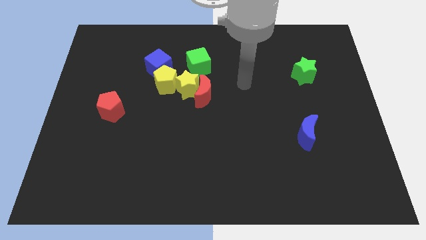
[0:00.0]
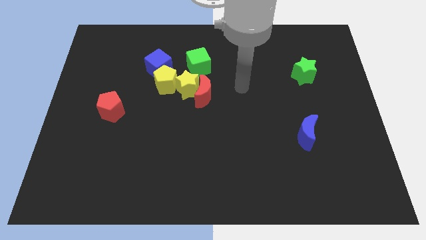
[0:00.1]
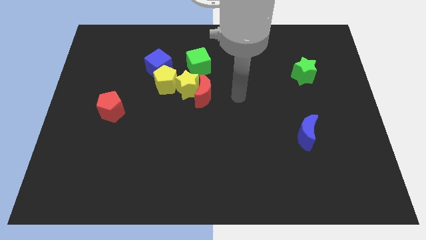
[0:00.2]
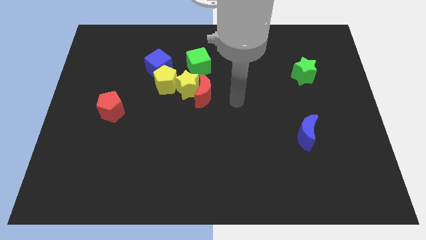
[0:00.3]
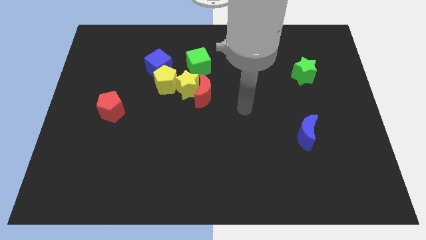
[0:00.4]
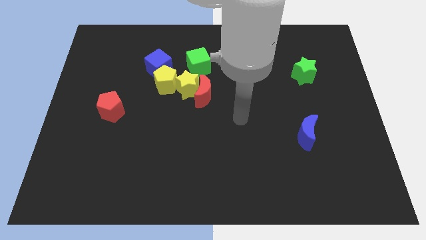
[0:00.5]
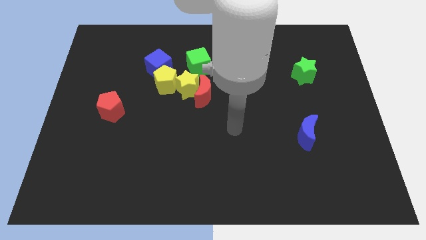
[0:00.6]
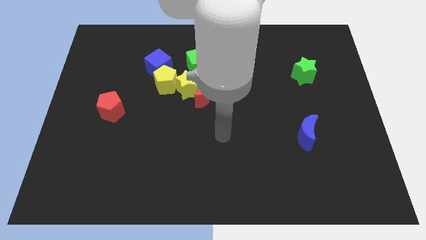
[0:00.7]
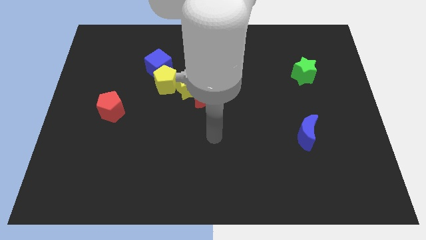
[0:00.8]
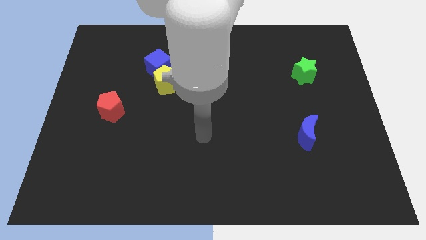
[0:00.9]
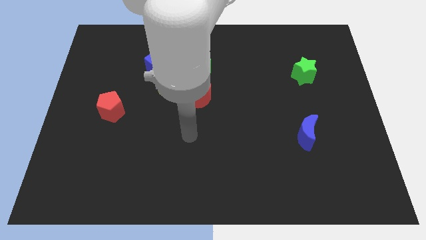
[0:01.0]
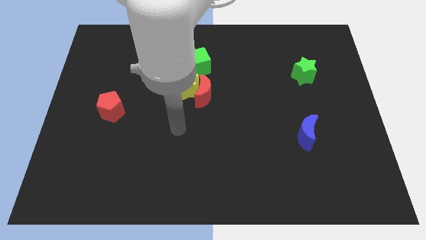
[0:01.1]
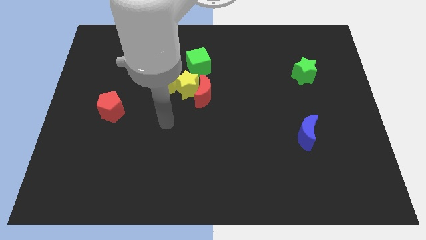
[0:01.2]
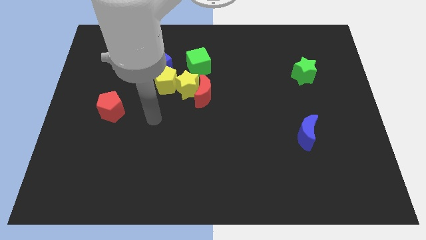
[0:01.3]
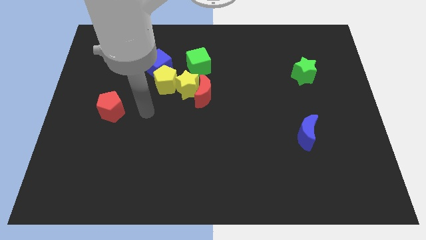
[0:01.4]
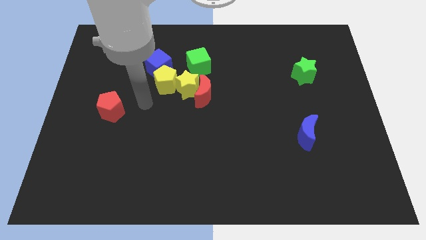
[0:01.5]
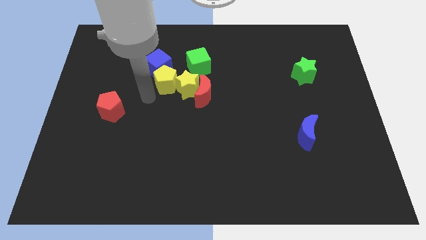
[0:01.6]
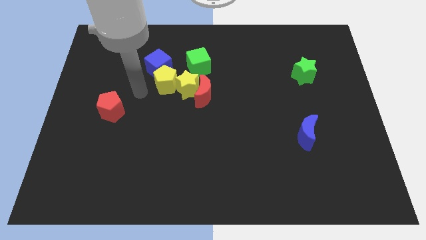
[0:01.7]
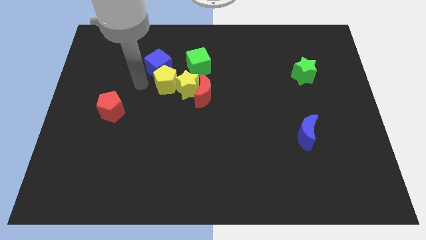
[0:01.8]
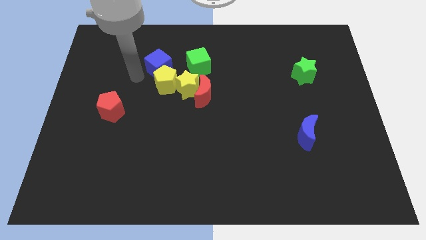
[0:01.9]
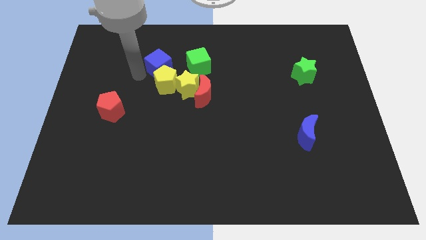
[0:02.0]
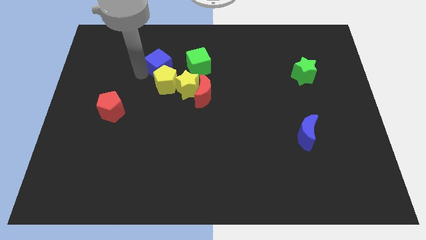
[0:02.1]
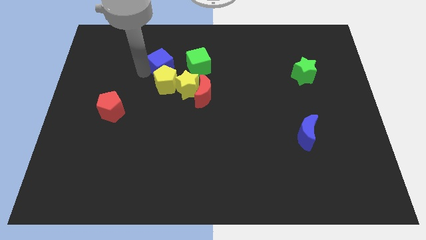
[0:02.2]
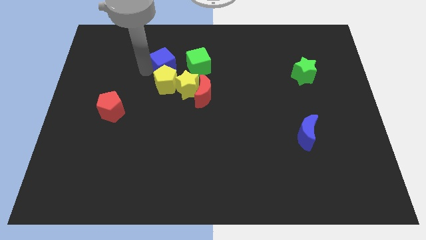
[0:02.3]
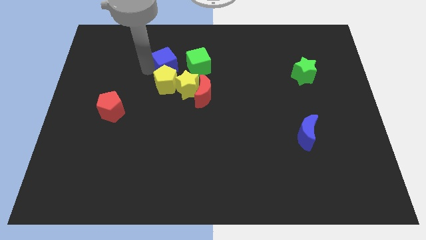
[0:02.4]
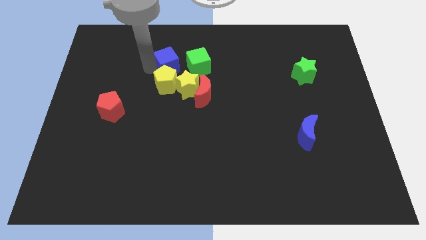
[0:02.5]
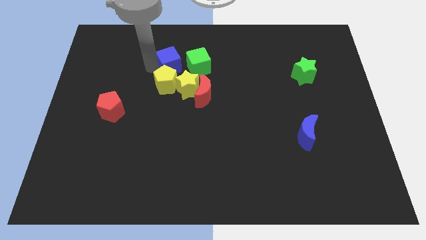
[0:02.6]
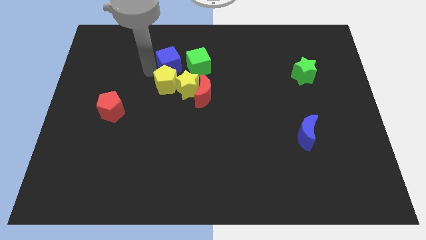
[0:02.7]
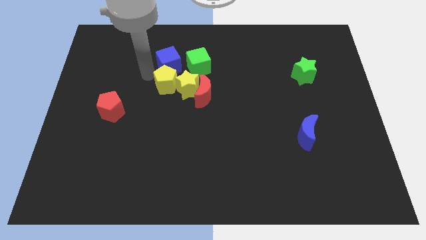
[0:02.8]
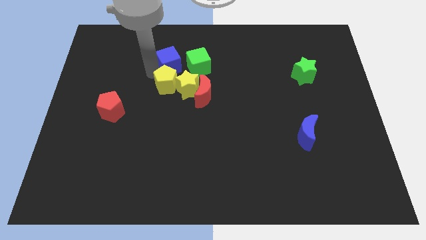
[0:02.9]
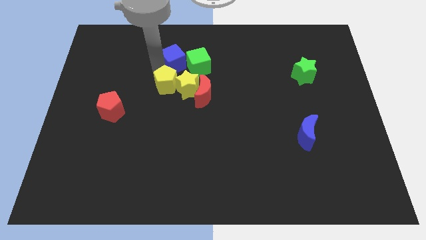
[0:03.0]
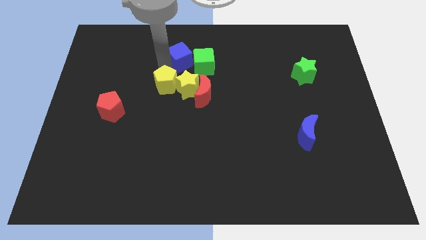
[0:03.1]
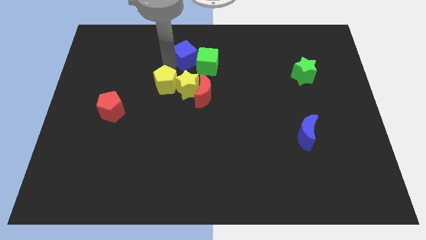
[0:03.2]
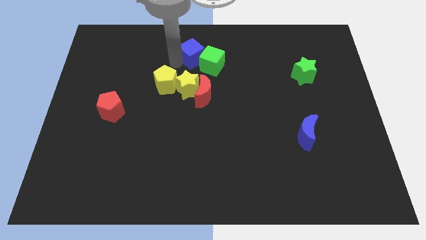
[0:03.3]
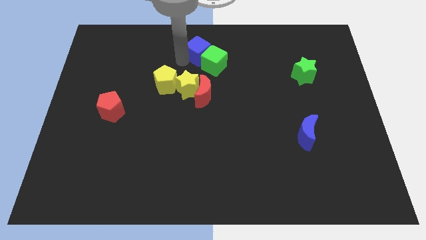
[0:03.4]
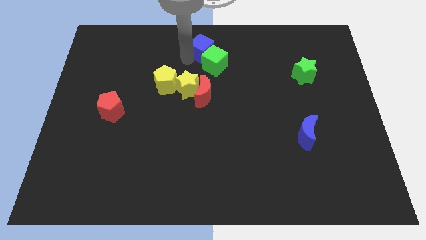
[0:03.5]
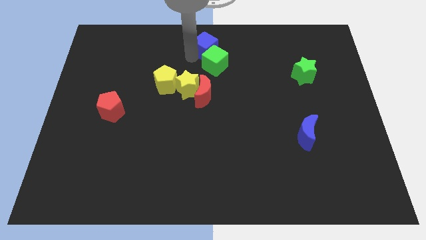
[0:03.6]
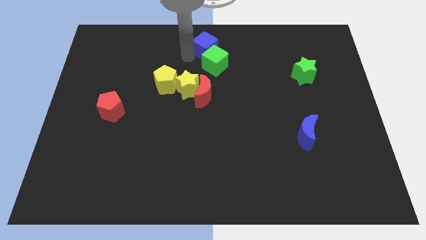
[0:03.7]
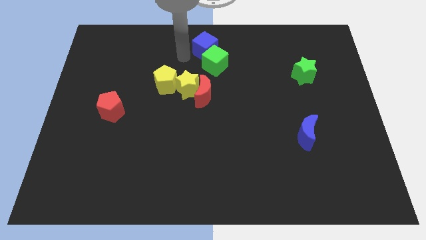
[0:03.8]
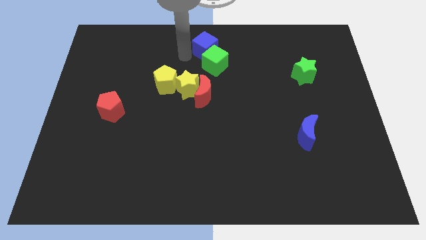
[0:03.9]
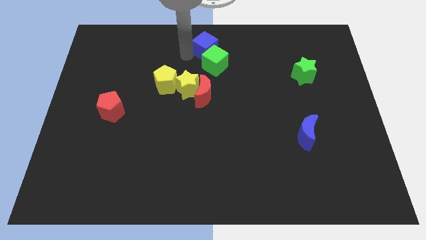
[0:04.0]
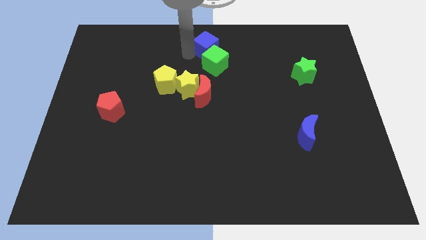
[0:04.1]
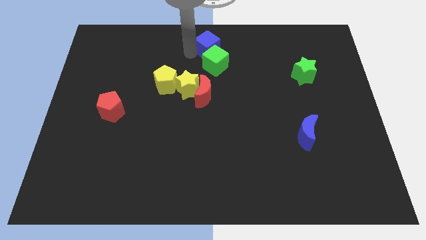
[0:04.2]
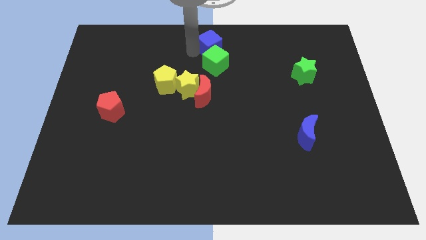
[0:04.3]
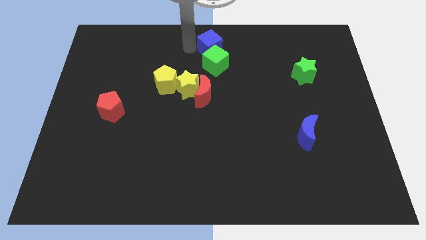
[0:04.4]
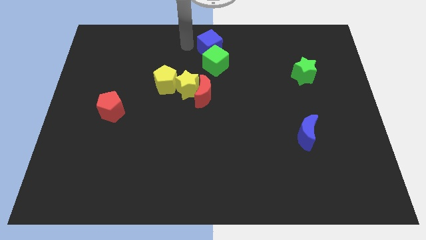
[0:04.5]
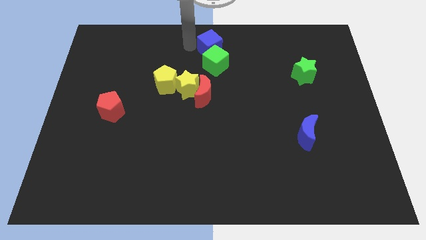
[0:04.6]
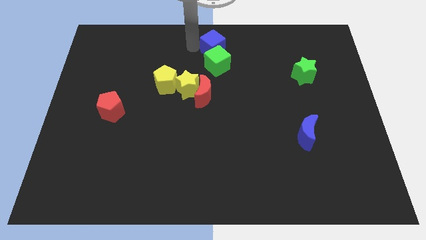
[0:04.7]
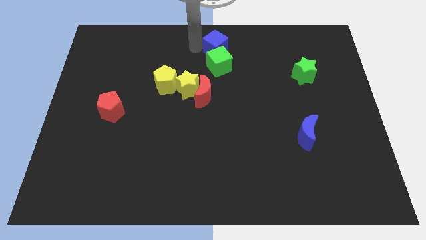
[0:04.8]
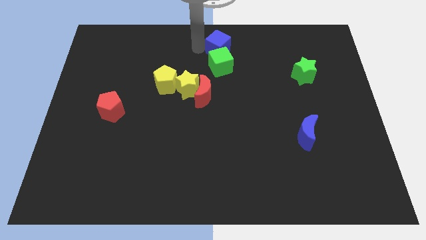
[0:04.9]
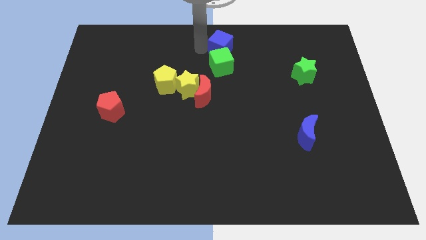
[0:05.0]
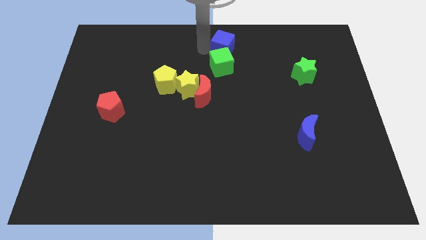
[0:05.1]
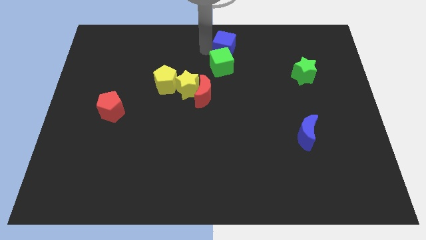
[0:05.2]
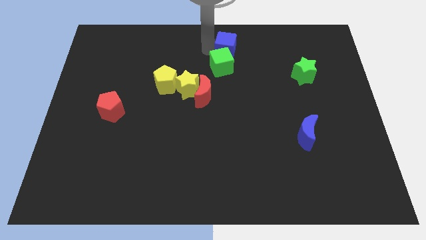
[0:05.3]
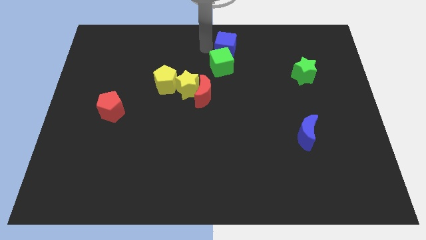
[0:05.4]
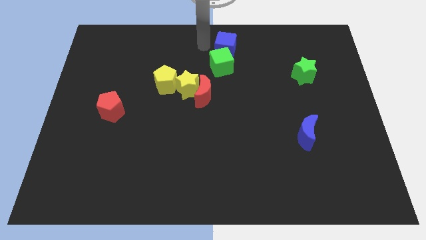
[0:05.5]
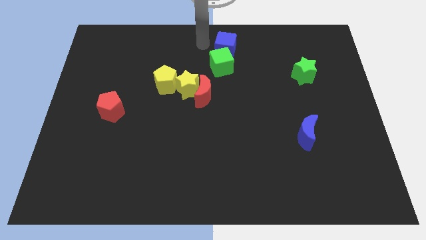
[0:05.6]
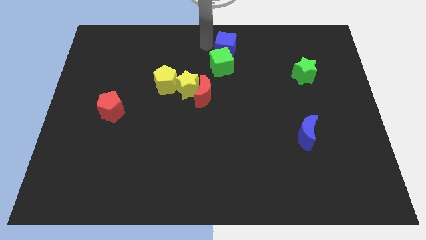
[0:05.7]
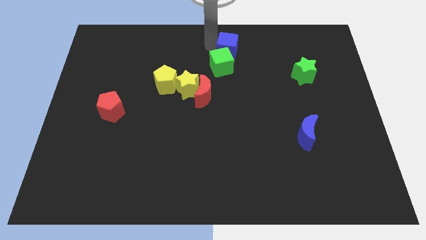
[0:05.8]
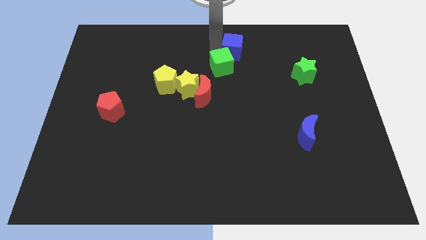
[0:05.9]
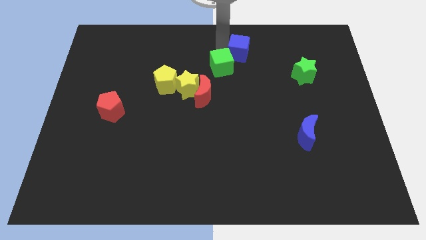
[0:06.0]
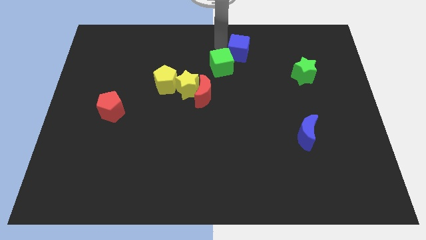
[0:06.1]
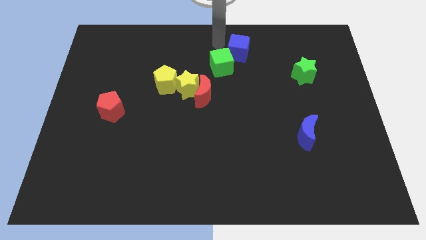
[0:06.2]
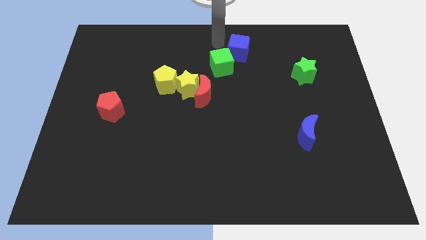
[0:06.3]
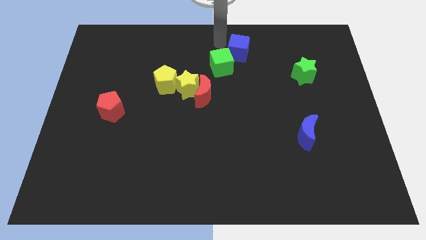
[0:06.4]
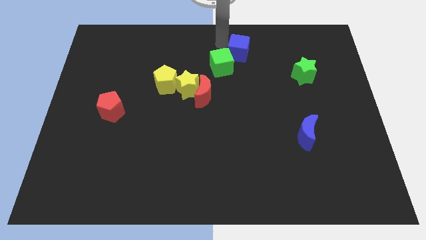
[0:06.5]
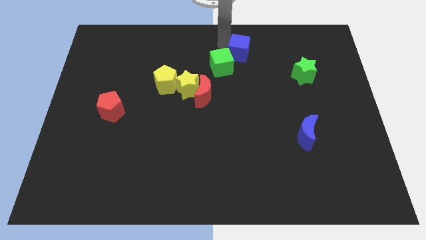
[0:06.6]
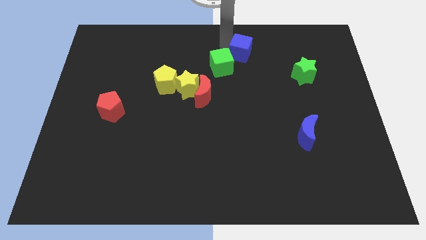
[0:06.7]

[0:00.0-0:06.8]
move the blue cube to the right

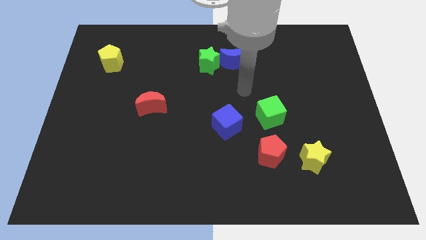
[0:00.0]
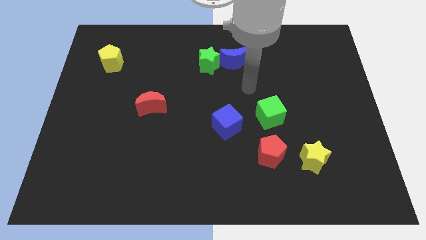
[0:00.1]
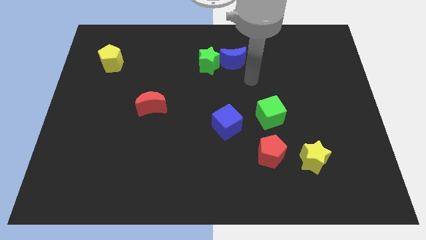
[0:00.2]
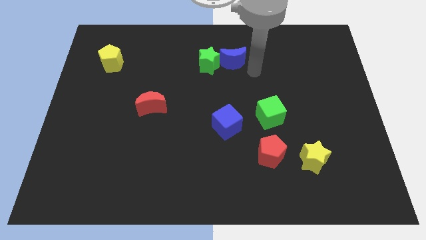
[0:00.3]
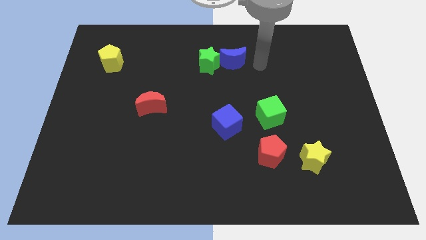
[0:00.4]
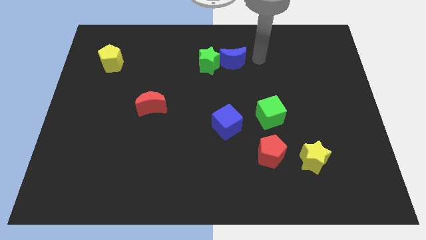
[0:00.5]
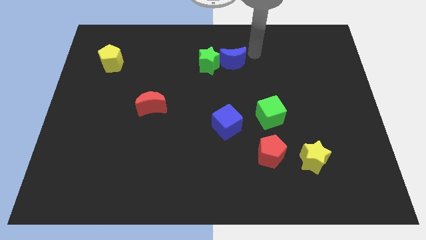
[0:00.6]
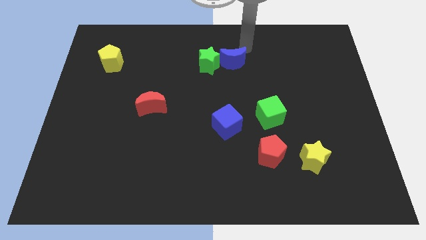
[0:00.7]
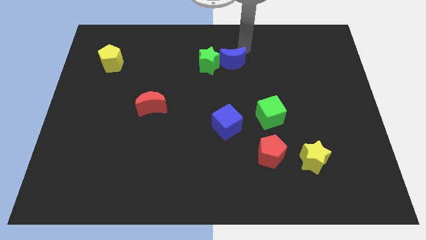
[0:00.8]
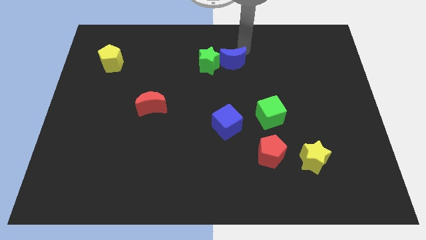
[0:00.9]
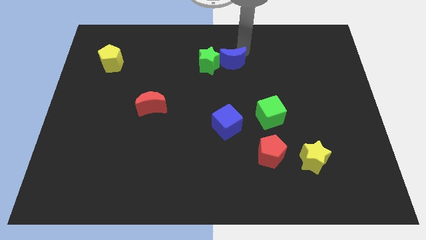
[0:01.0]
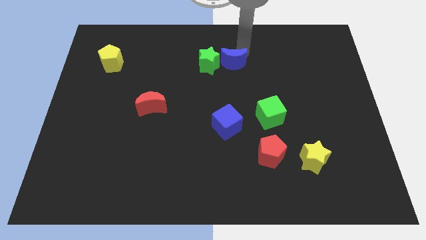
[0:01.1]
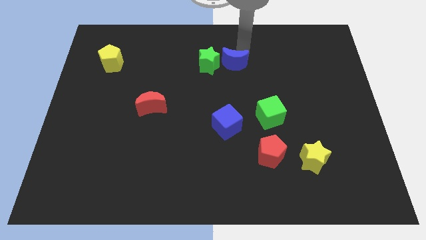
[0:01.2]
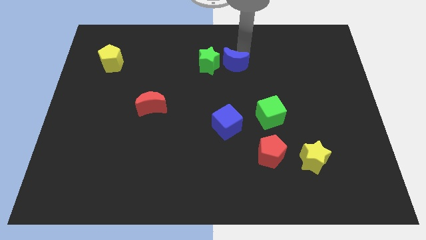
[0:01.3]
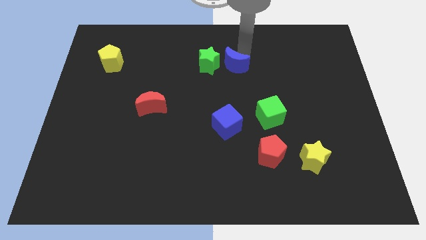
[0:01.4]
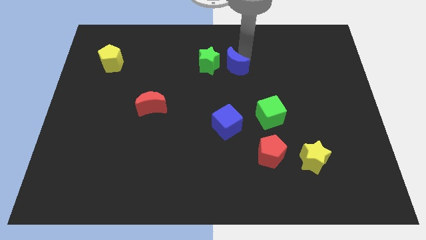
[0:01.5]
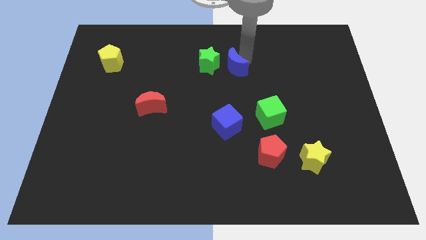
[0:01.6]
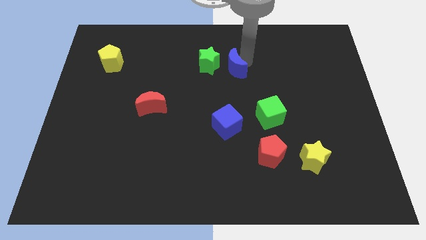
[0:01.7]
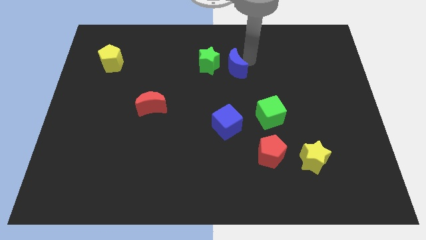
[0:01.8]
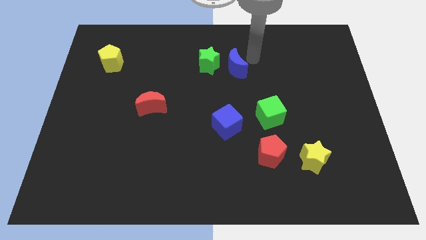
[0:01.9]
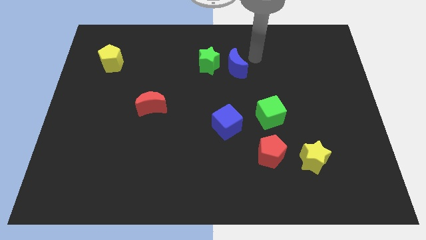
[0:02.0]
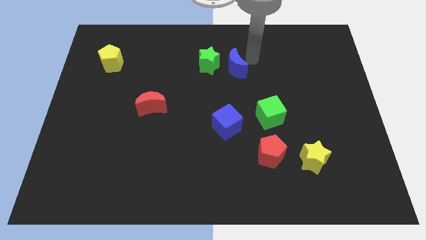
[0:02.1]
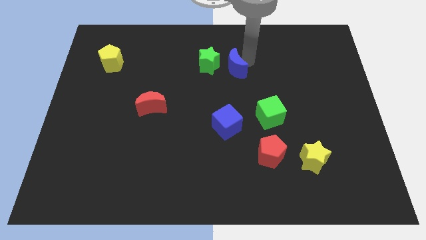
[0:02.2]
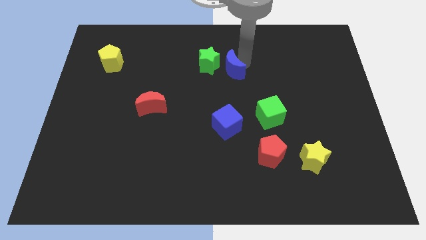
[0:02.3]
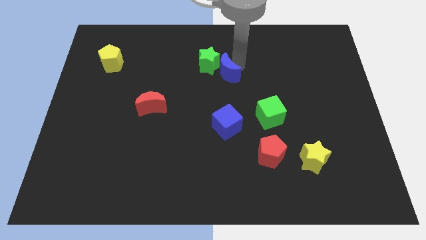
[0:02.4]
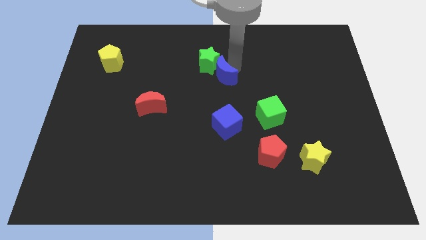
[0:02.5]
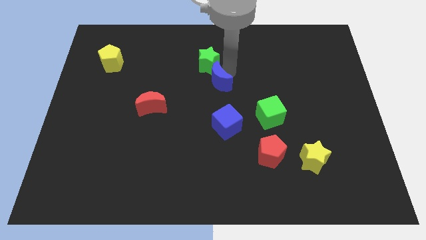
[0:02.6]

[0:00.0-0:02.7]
move the blue moon a little bit downwards and to the left
